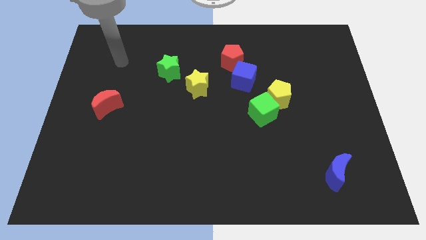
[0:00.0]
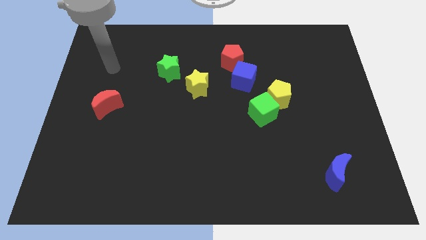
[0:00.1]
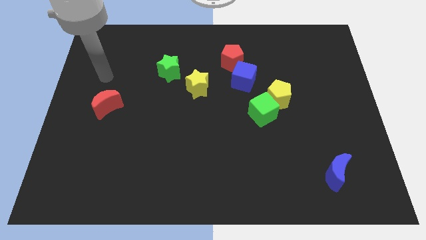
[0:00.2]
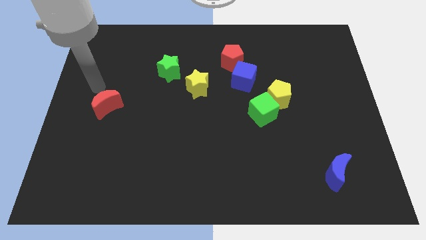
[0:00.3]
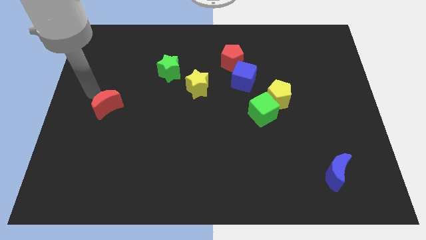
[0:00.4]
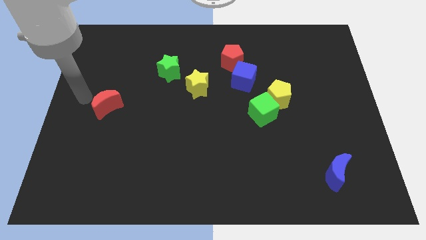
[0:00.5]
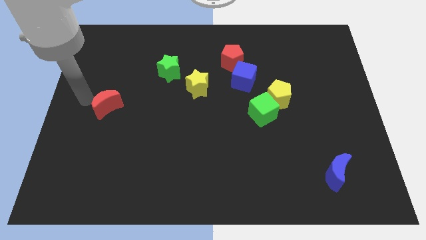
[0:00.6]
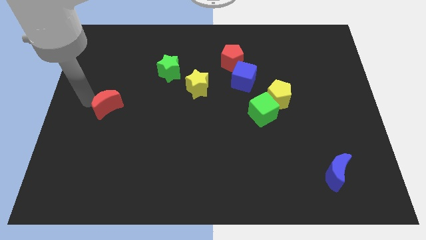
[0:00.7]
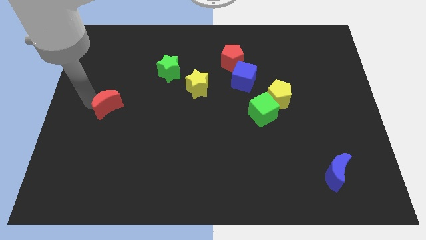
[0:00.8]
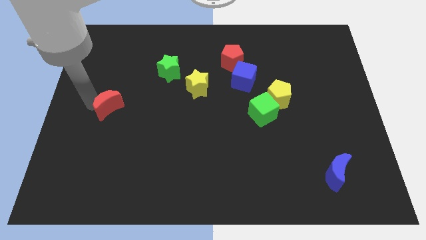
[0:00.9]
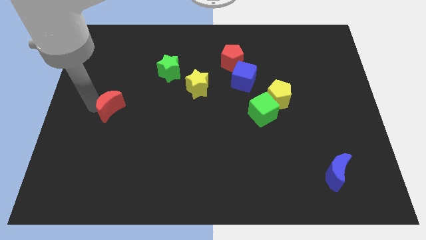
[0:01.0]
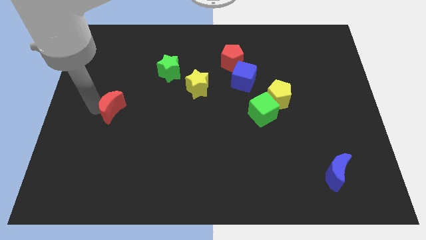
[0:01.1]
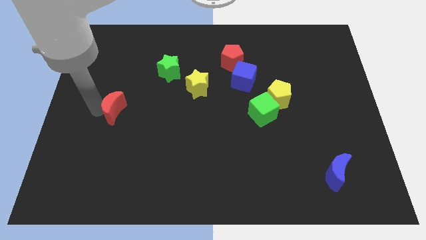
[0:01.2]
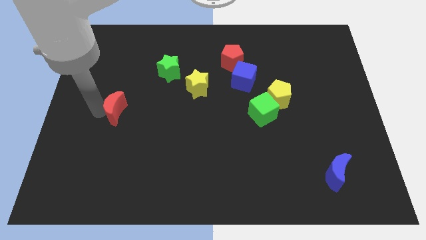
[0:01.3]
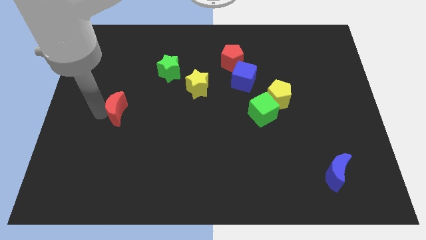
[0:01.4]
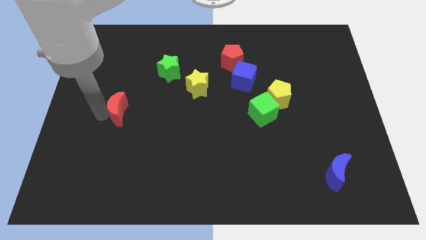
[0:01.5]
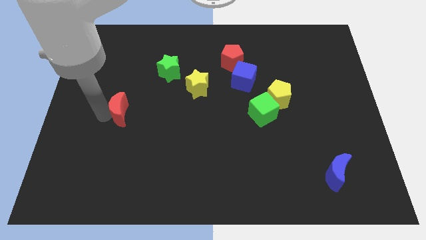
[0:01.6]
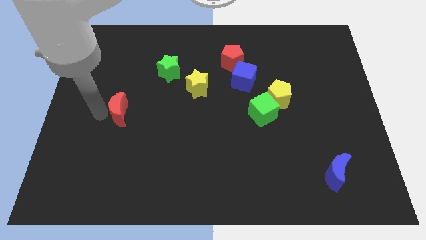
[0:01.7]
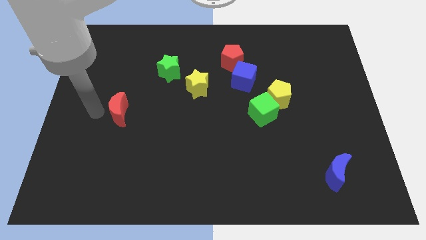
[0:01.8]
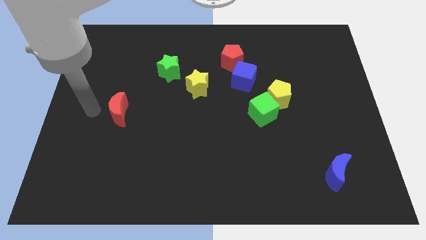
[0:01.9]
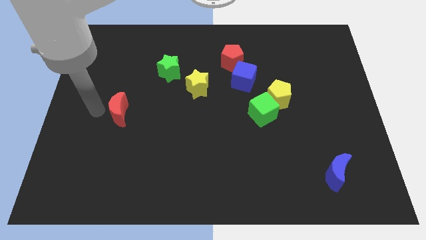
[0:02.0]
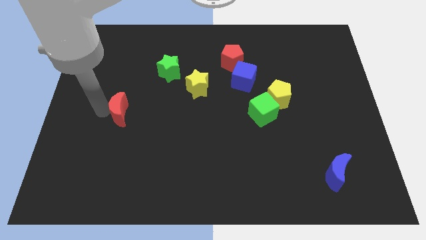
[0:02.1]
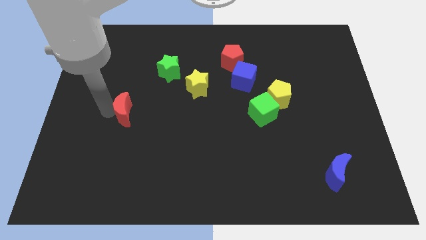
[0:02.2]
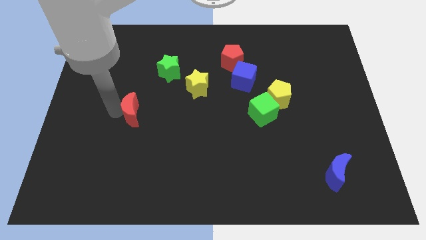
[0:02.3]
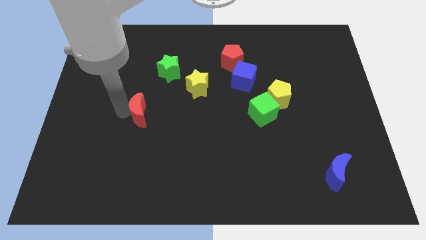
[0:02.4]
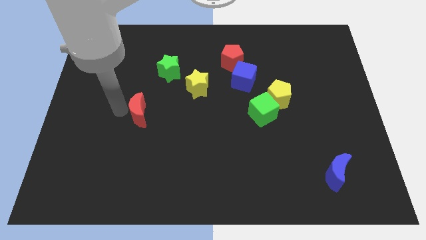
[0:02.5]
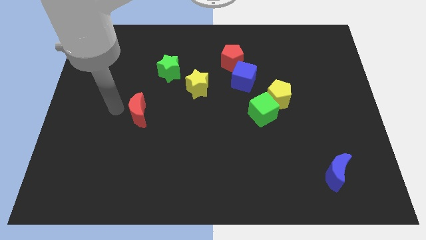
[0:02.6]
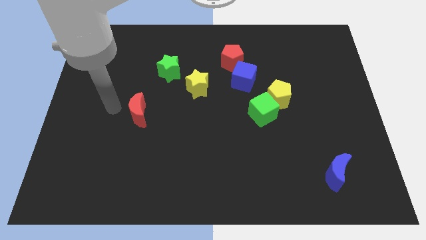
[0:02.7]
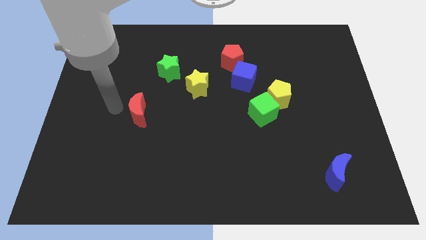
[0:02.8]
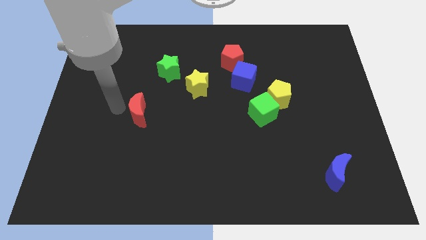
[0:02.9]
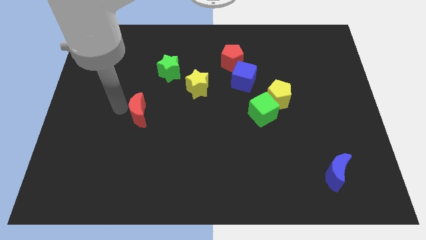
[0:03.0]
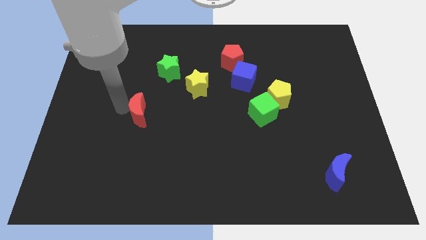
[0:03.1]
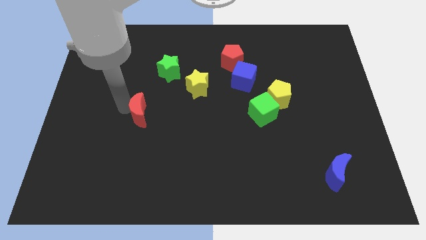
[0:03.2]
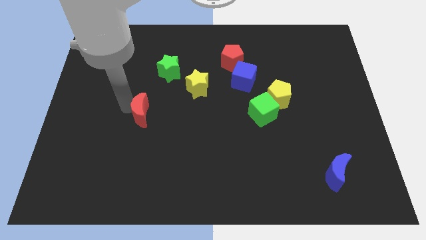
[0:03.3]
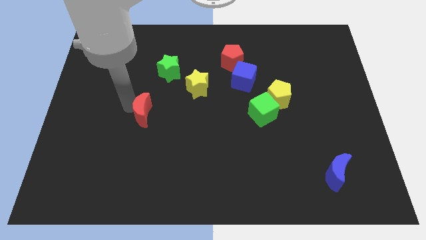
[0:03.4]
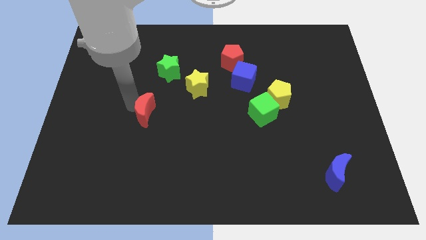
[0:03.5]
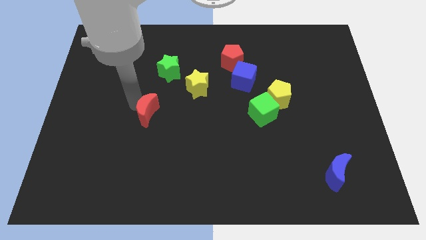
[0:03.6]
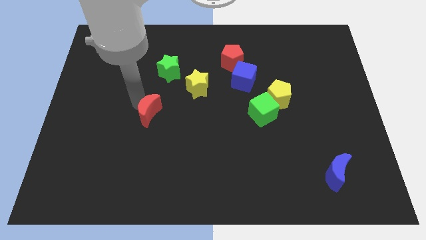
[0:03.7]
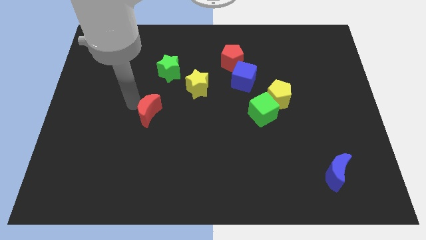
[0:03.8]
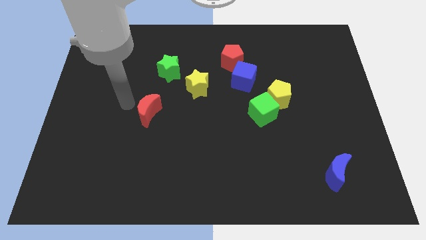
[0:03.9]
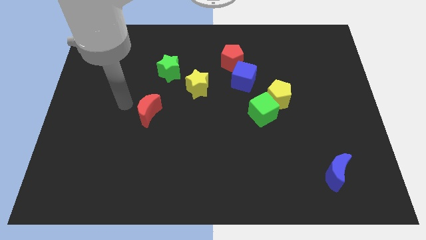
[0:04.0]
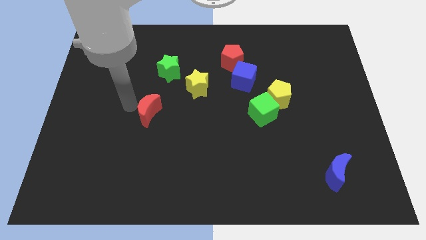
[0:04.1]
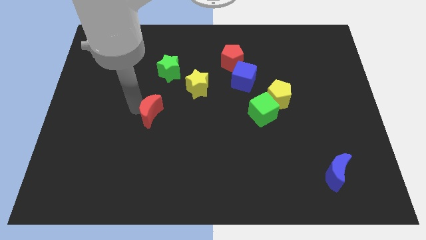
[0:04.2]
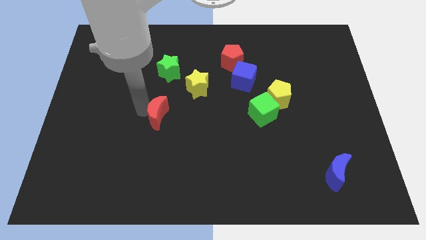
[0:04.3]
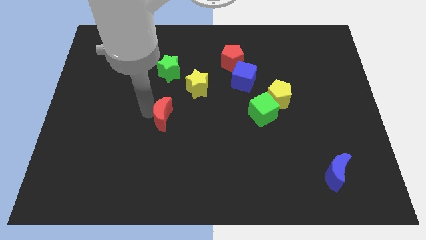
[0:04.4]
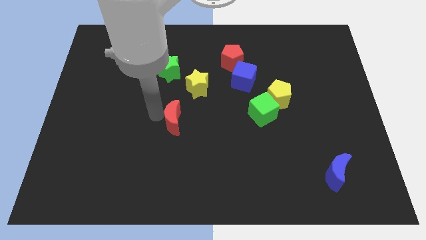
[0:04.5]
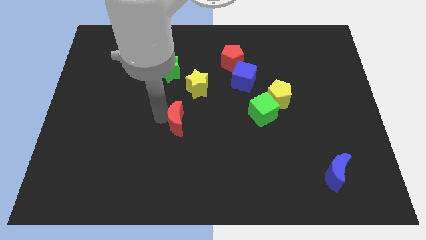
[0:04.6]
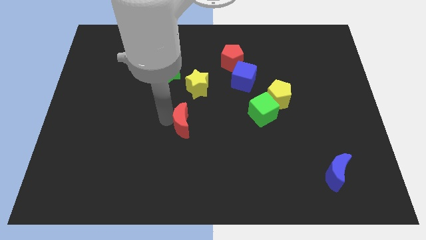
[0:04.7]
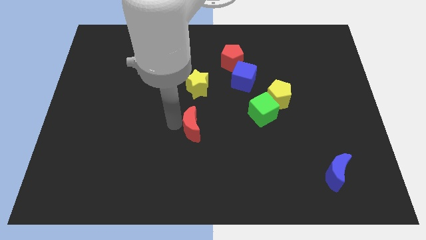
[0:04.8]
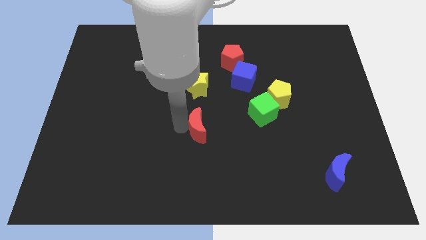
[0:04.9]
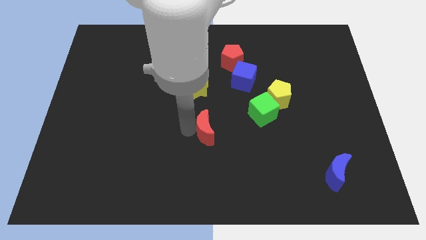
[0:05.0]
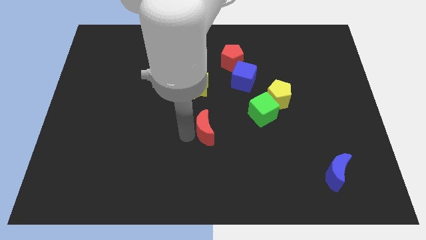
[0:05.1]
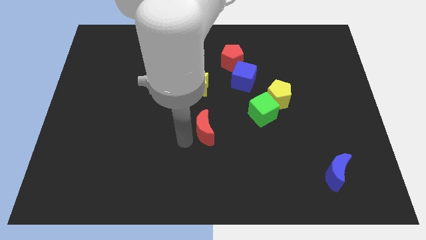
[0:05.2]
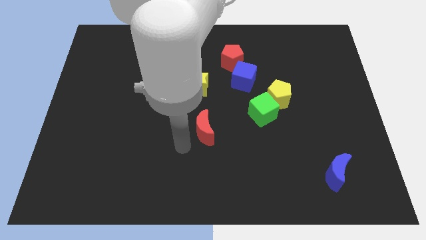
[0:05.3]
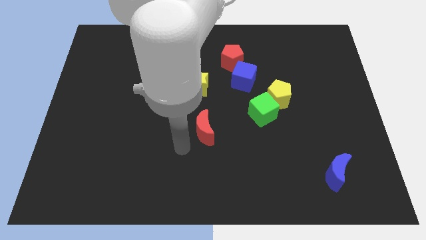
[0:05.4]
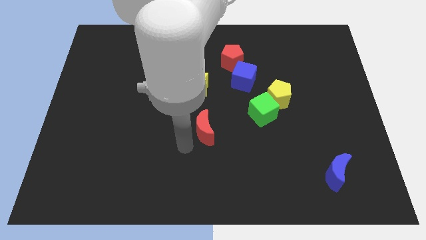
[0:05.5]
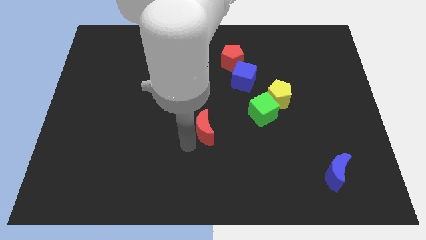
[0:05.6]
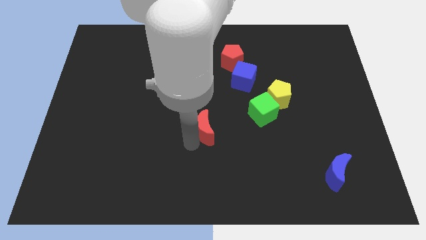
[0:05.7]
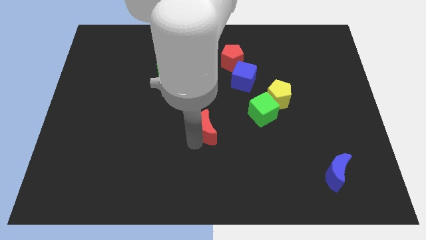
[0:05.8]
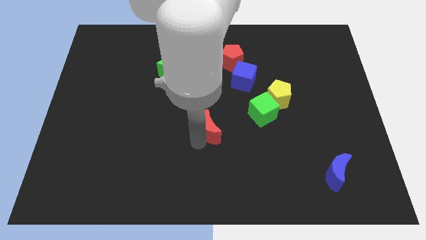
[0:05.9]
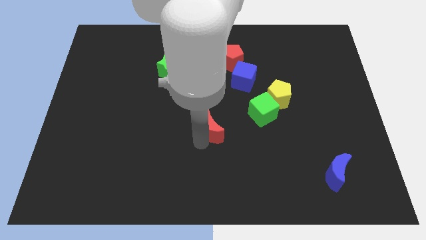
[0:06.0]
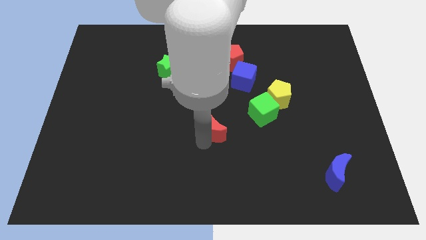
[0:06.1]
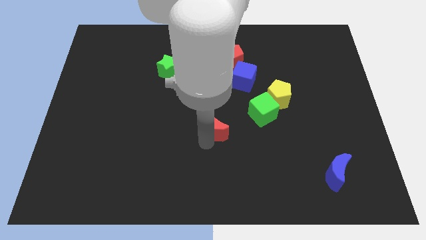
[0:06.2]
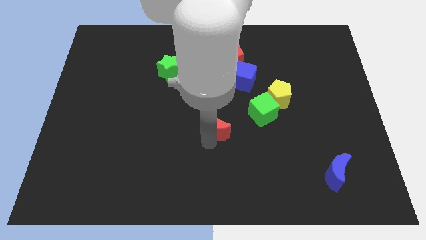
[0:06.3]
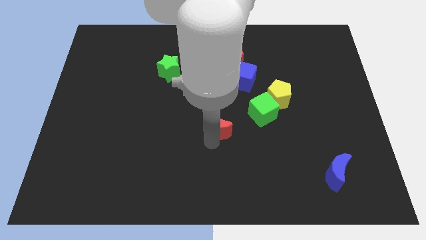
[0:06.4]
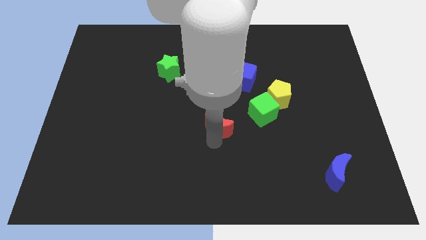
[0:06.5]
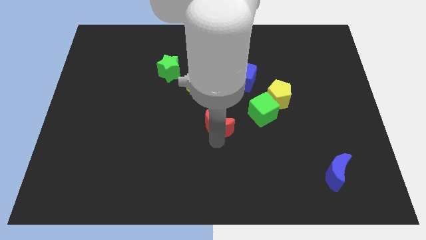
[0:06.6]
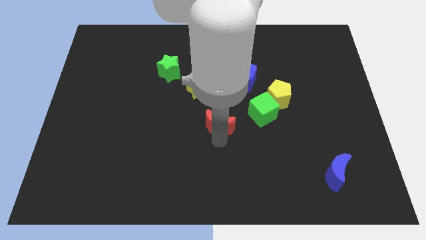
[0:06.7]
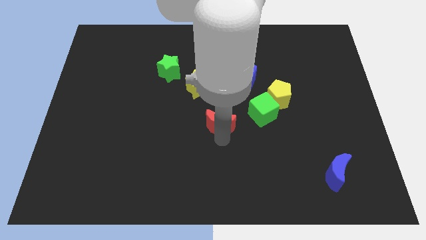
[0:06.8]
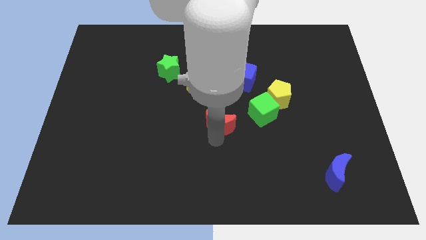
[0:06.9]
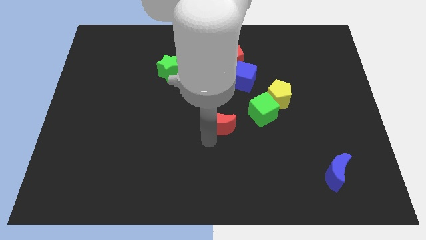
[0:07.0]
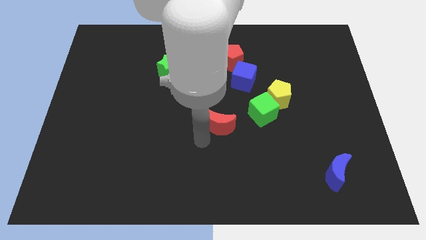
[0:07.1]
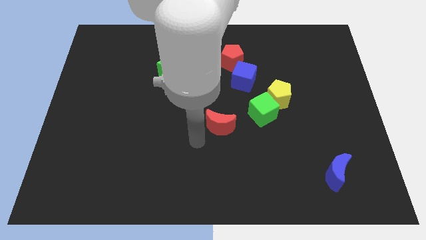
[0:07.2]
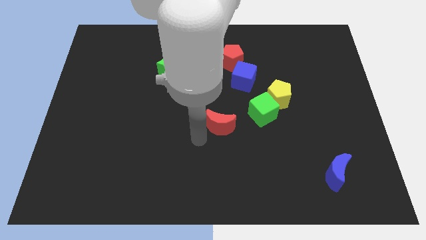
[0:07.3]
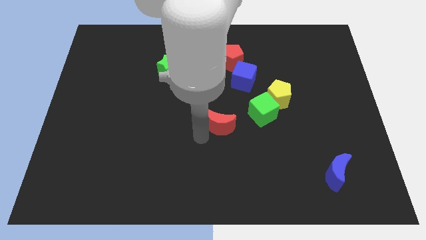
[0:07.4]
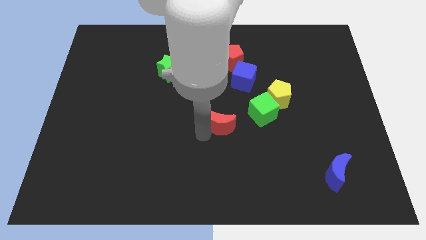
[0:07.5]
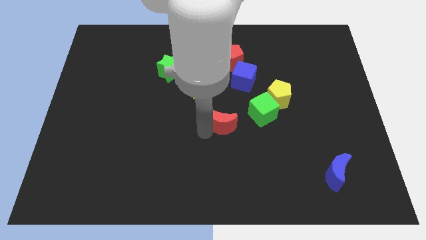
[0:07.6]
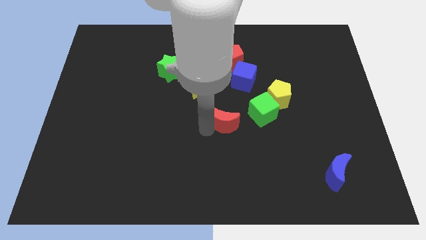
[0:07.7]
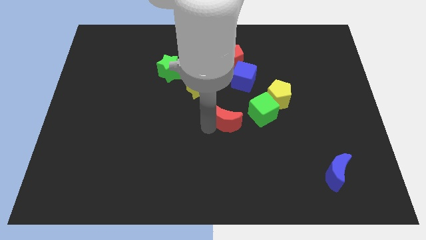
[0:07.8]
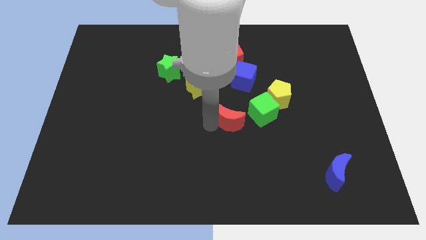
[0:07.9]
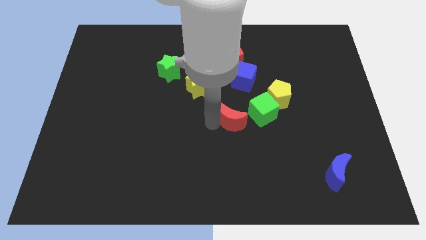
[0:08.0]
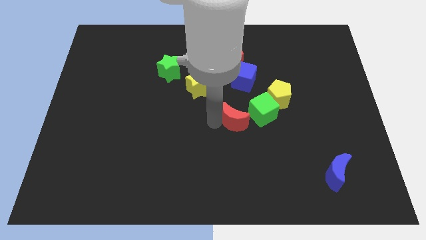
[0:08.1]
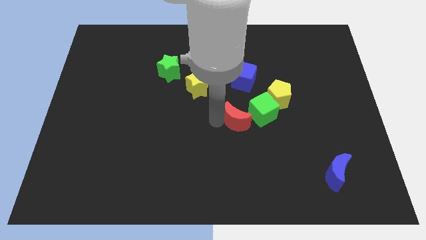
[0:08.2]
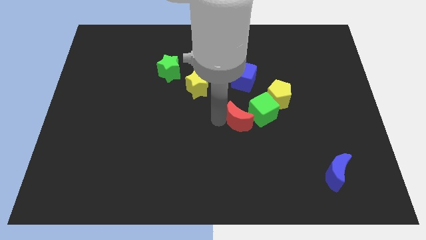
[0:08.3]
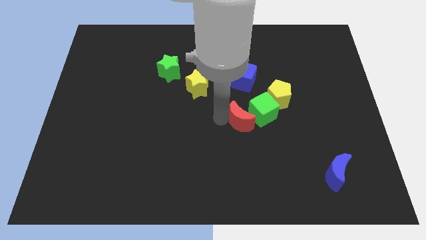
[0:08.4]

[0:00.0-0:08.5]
move the red moon next to the green cube
